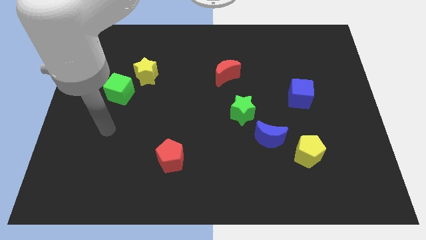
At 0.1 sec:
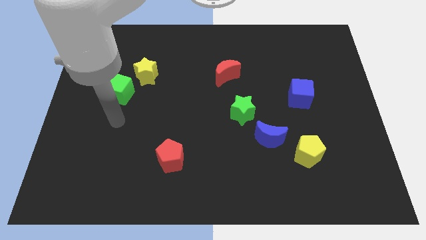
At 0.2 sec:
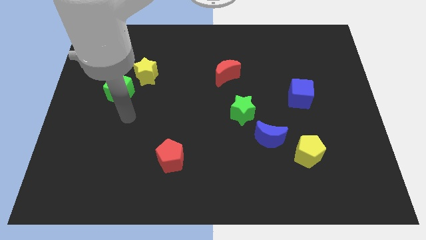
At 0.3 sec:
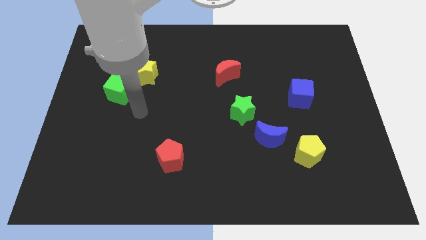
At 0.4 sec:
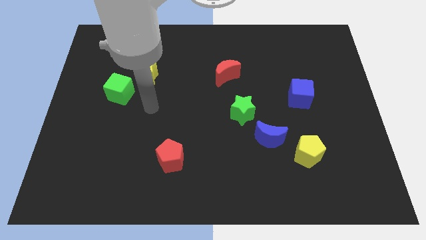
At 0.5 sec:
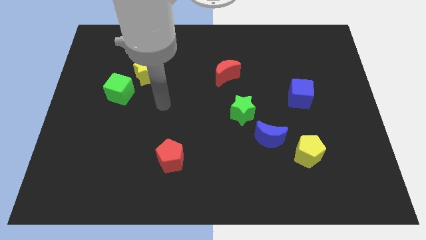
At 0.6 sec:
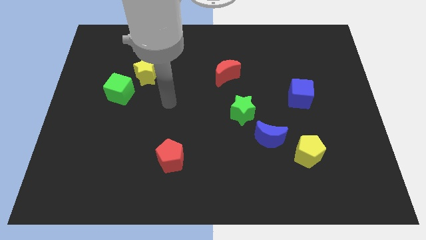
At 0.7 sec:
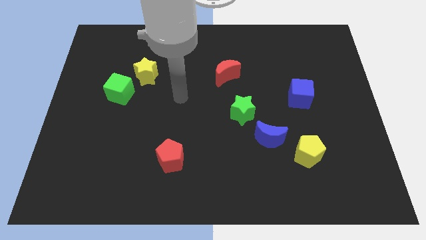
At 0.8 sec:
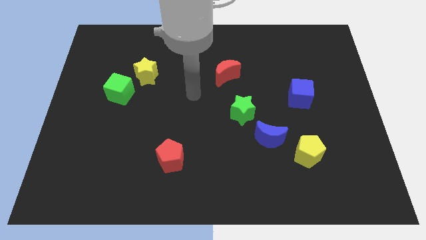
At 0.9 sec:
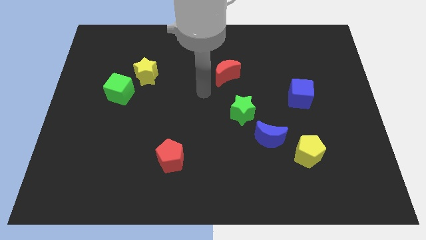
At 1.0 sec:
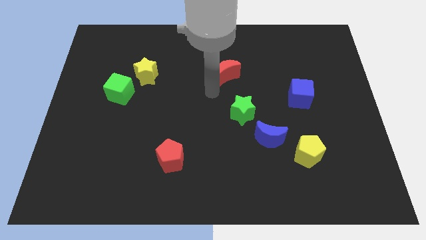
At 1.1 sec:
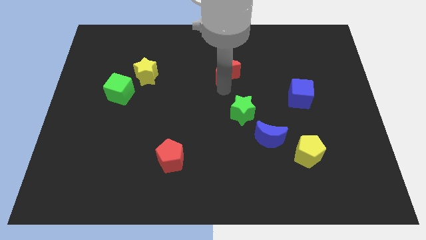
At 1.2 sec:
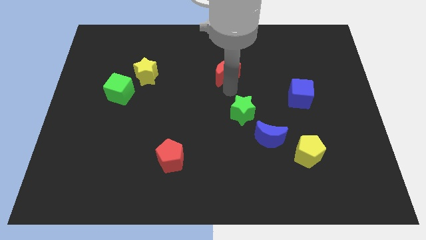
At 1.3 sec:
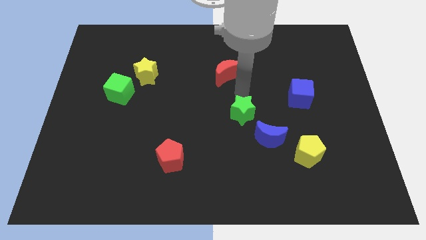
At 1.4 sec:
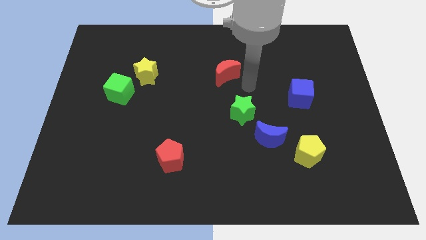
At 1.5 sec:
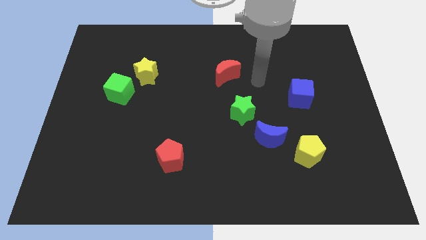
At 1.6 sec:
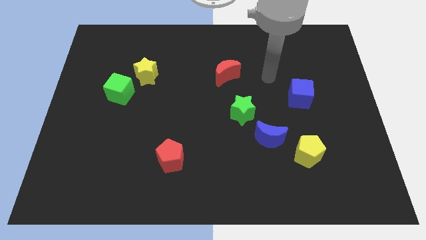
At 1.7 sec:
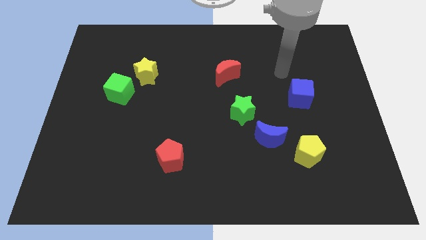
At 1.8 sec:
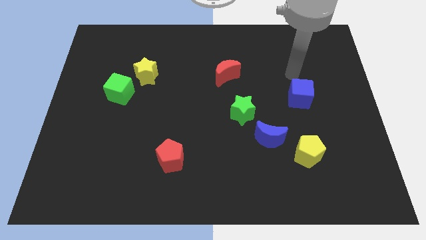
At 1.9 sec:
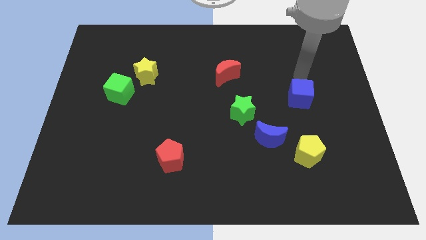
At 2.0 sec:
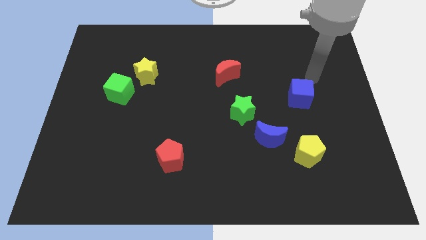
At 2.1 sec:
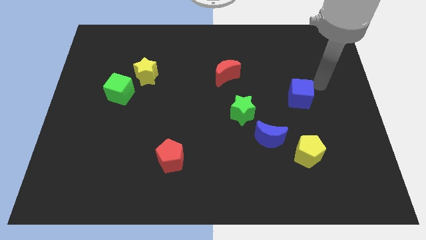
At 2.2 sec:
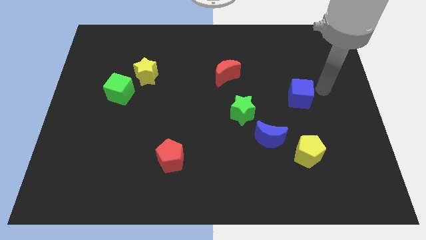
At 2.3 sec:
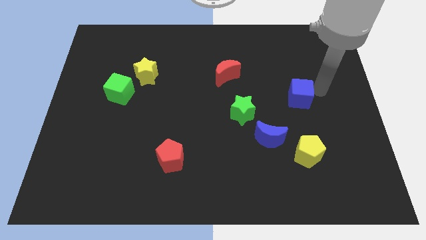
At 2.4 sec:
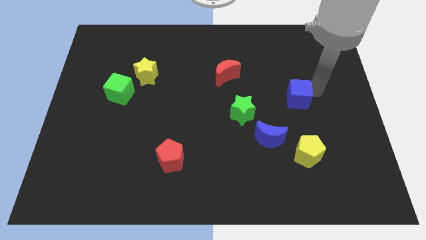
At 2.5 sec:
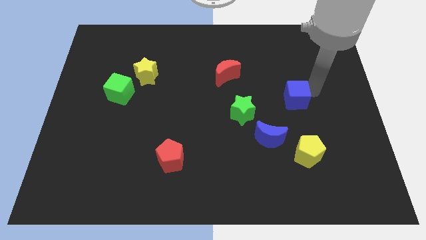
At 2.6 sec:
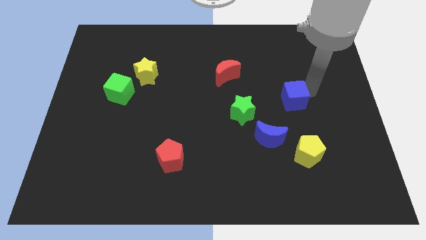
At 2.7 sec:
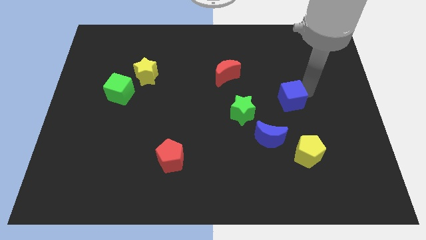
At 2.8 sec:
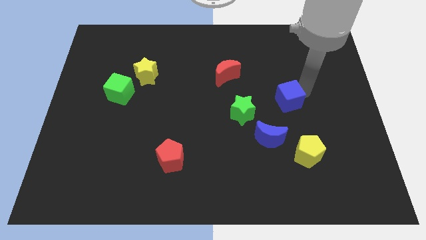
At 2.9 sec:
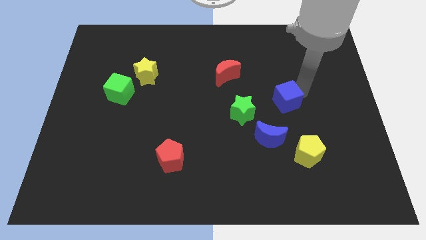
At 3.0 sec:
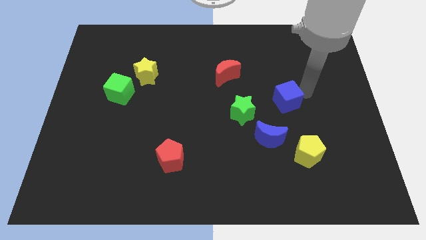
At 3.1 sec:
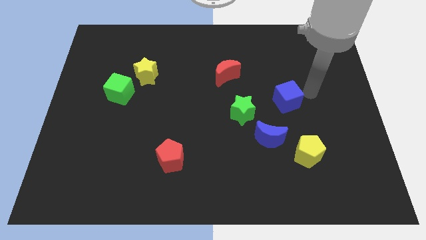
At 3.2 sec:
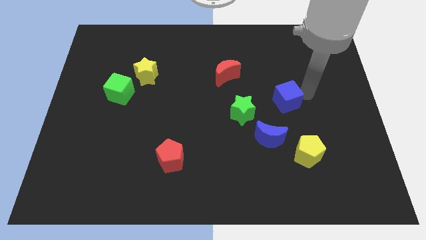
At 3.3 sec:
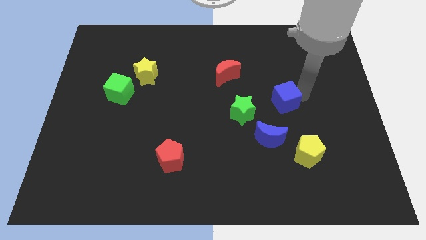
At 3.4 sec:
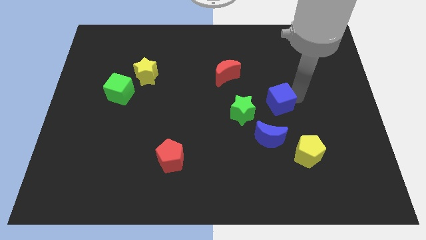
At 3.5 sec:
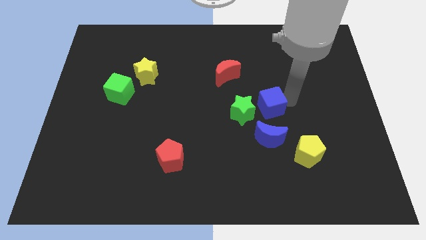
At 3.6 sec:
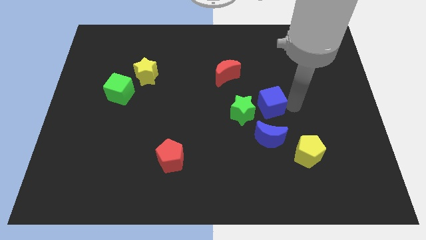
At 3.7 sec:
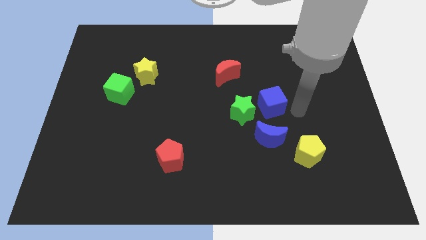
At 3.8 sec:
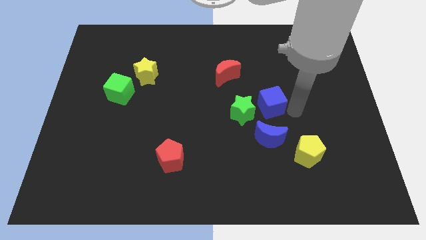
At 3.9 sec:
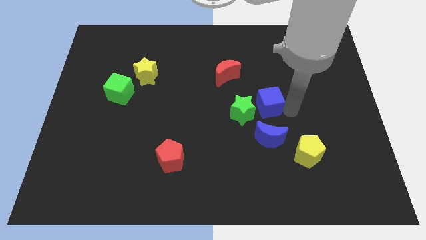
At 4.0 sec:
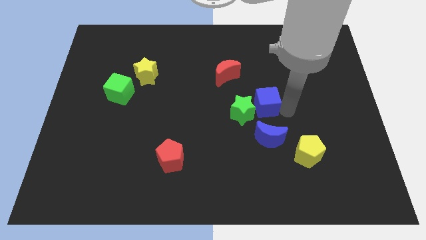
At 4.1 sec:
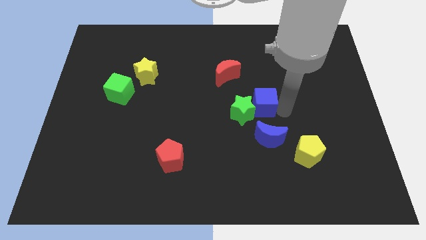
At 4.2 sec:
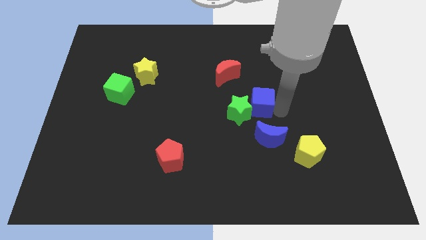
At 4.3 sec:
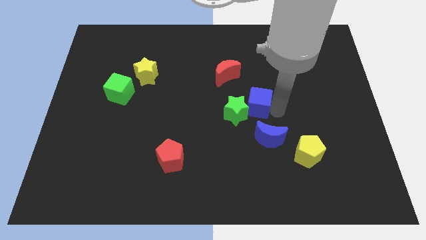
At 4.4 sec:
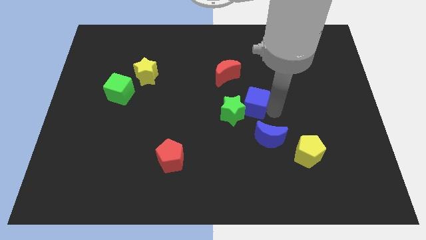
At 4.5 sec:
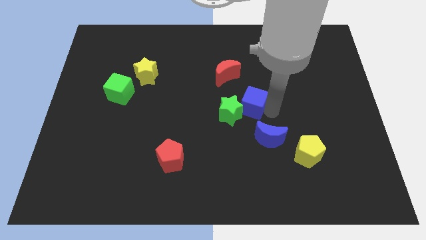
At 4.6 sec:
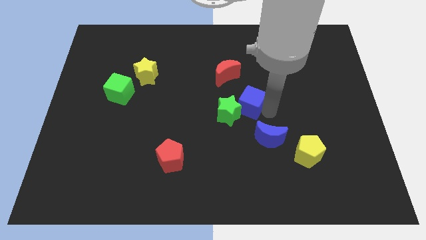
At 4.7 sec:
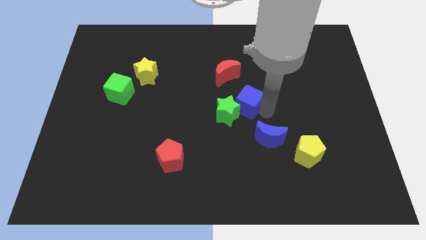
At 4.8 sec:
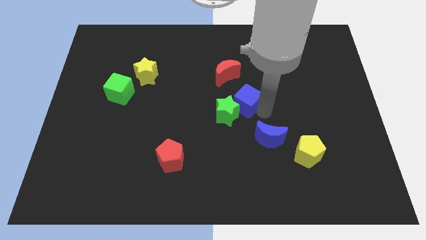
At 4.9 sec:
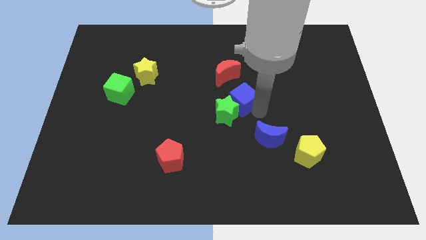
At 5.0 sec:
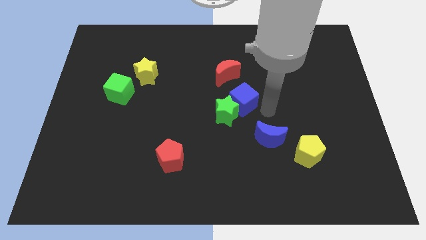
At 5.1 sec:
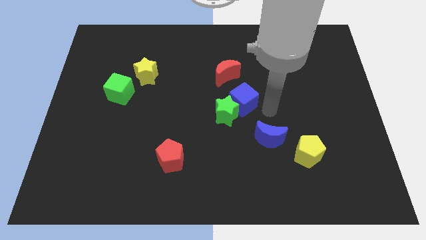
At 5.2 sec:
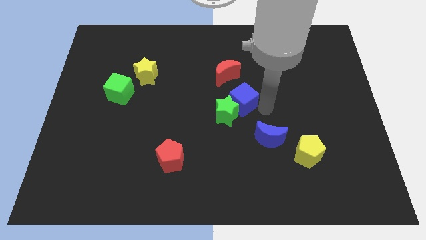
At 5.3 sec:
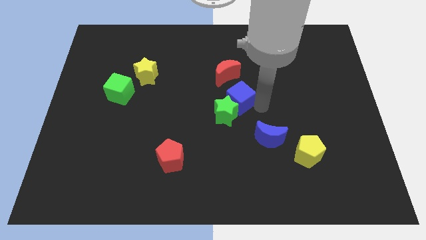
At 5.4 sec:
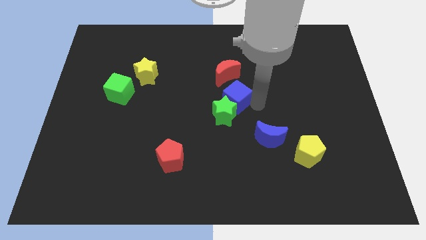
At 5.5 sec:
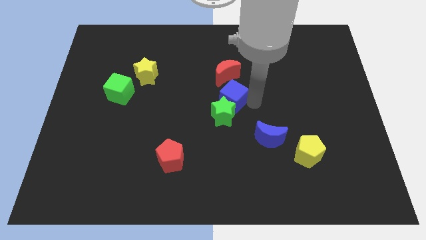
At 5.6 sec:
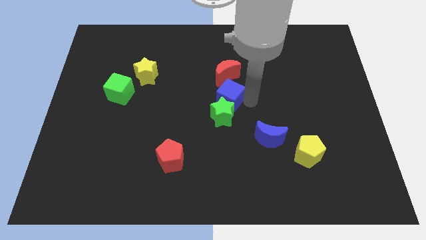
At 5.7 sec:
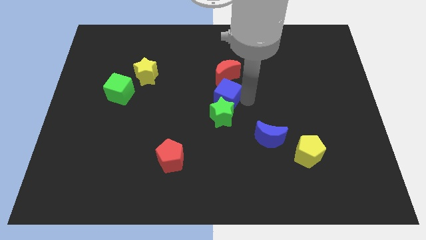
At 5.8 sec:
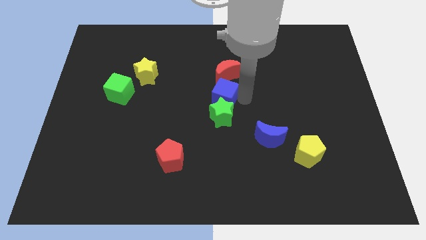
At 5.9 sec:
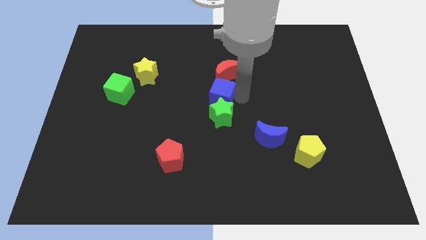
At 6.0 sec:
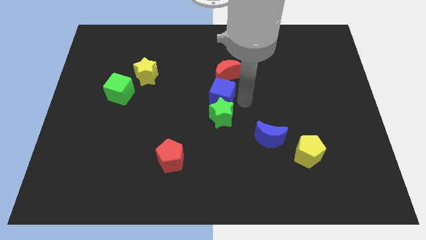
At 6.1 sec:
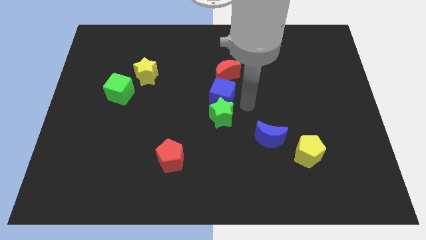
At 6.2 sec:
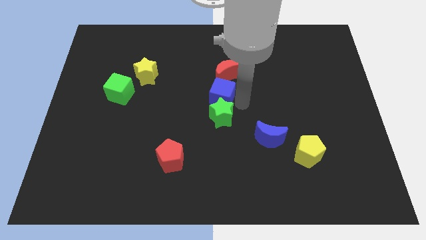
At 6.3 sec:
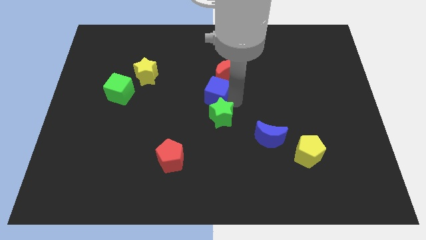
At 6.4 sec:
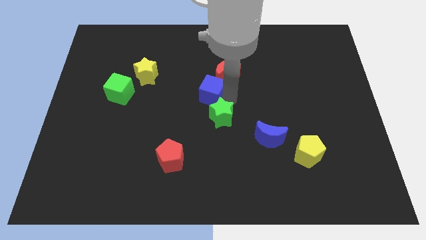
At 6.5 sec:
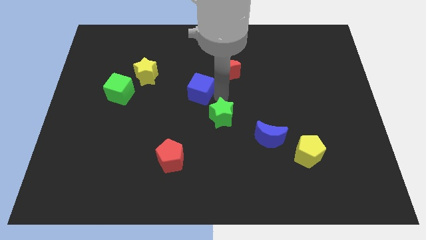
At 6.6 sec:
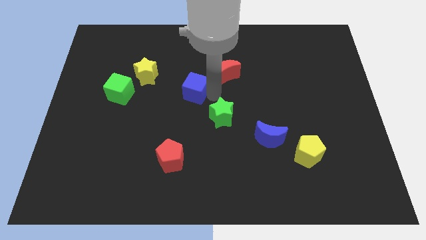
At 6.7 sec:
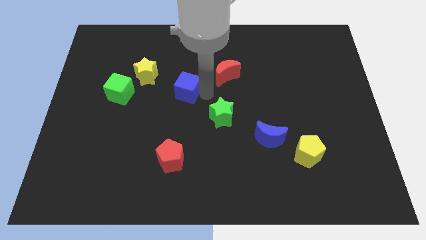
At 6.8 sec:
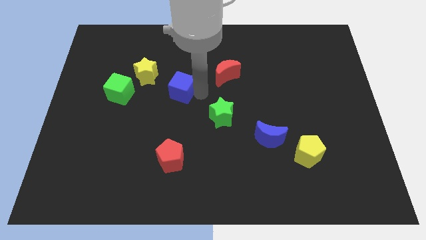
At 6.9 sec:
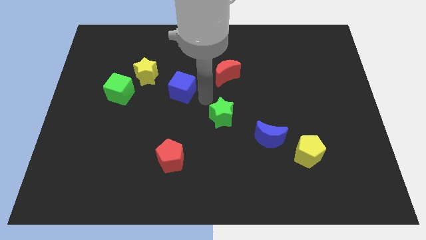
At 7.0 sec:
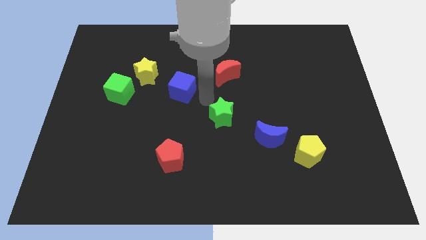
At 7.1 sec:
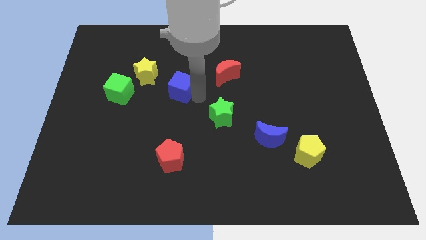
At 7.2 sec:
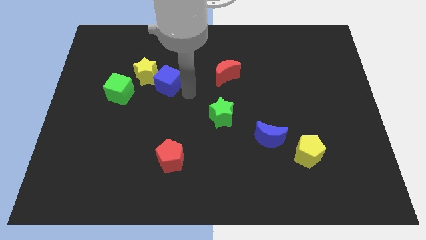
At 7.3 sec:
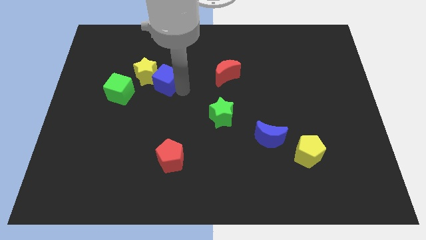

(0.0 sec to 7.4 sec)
move the blue cube towards the yellow star
